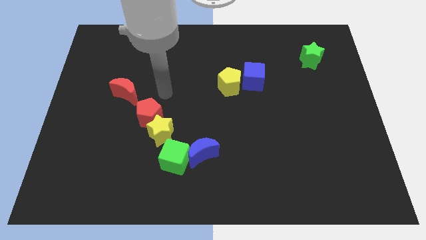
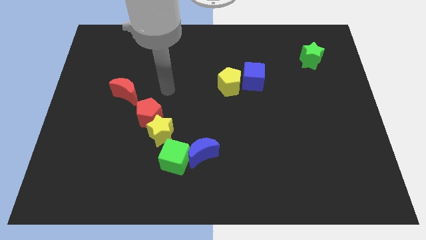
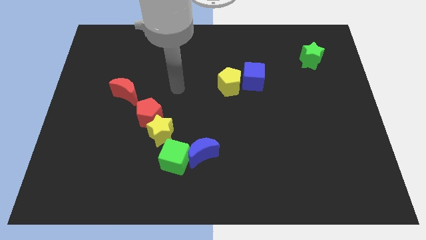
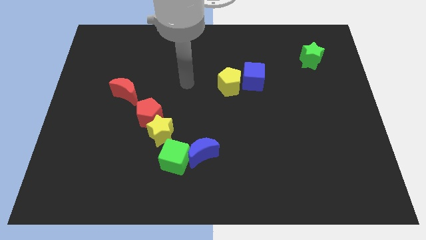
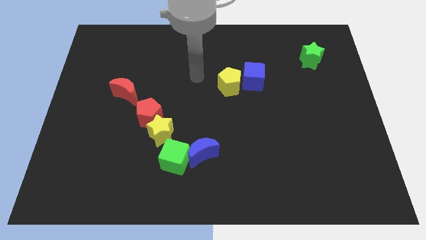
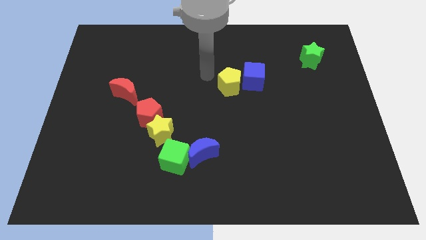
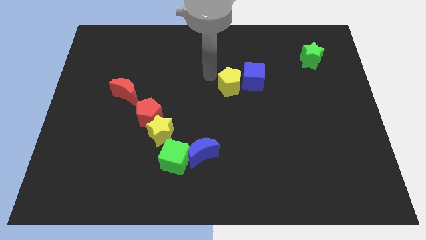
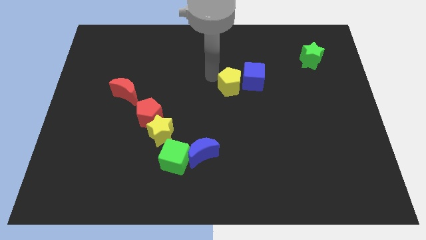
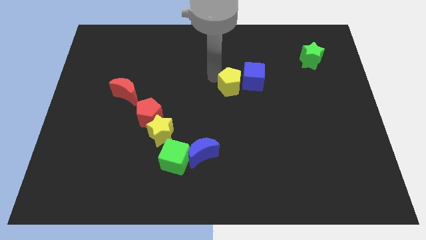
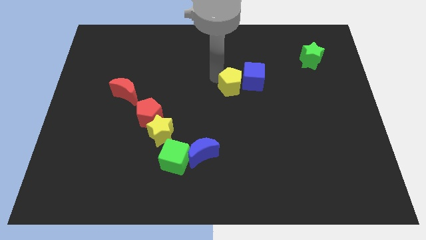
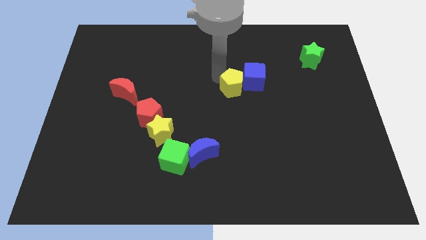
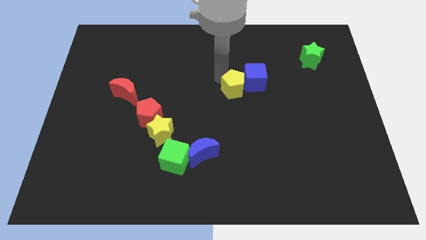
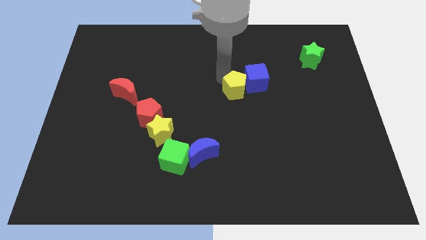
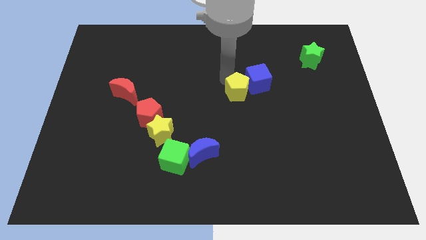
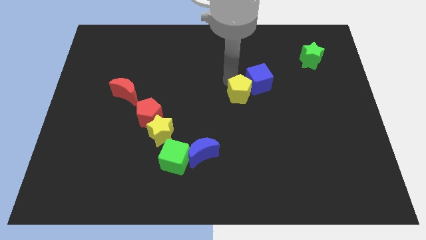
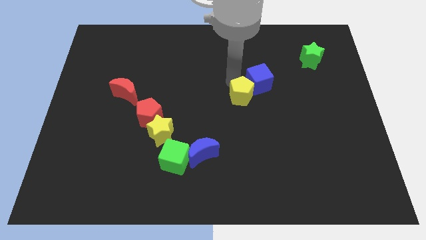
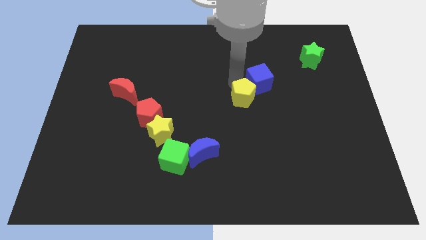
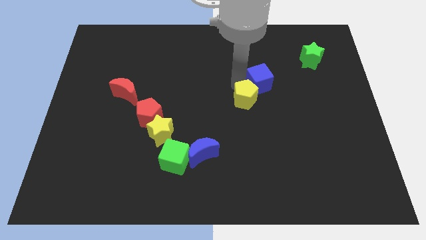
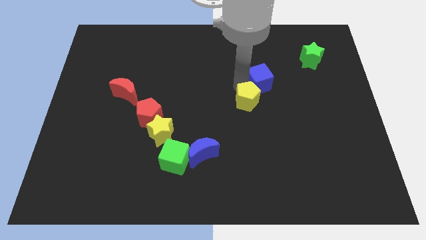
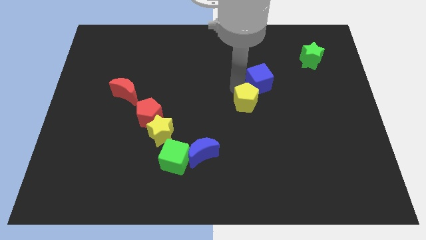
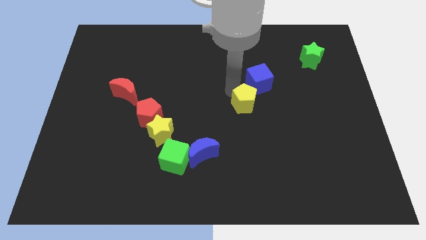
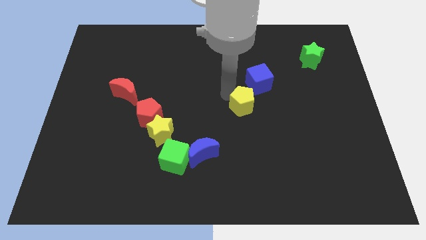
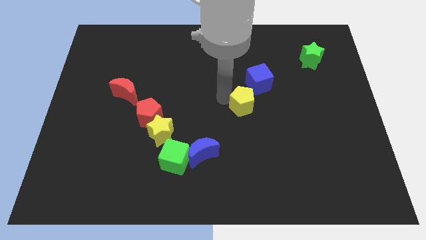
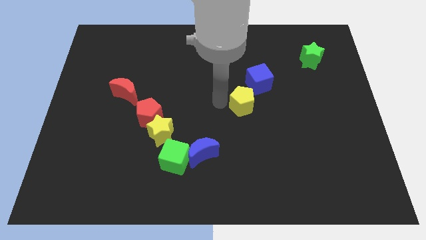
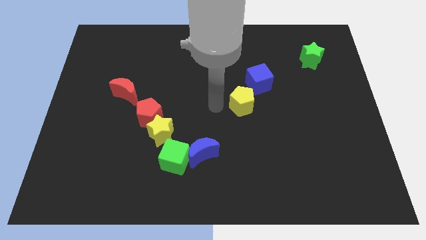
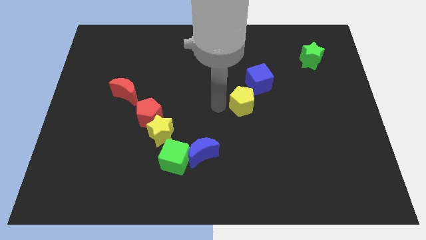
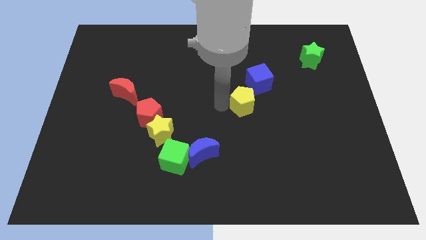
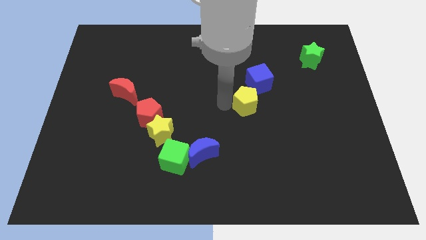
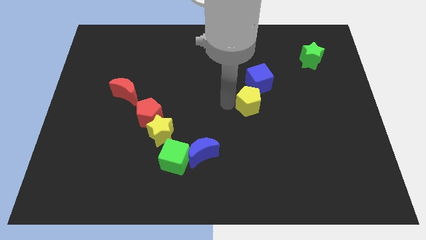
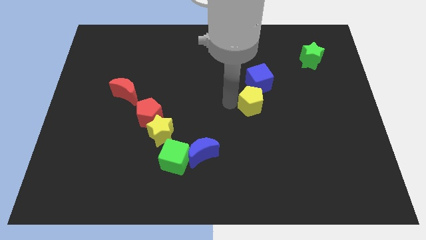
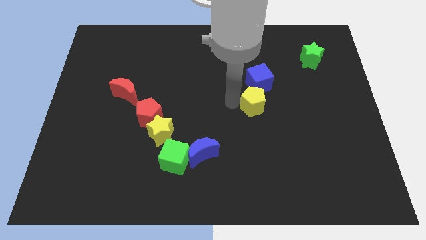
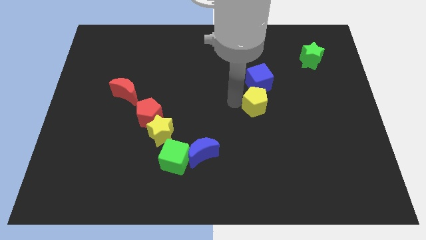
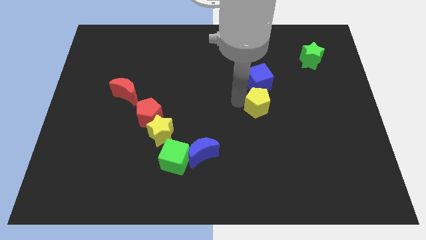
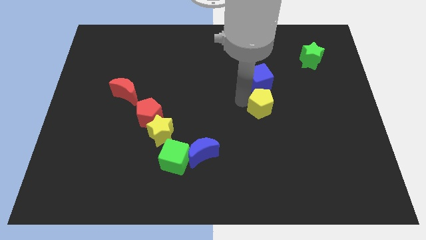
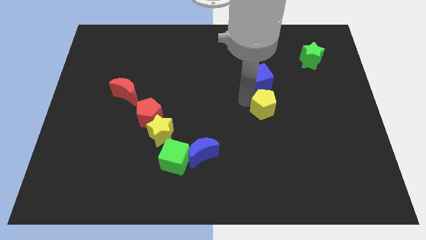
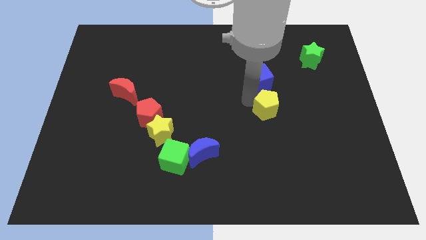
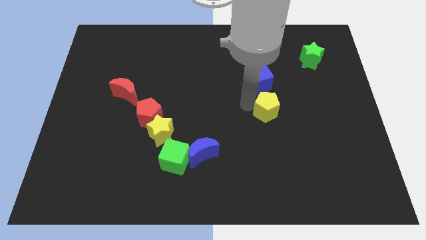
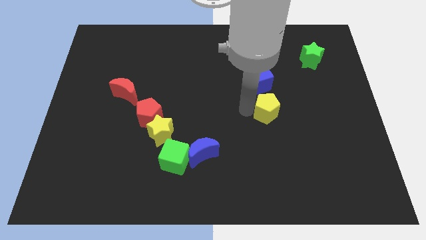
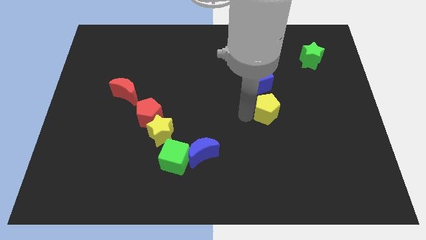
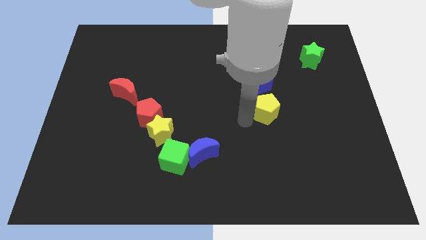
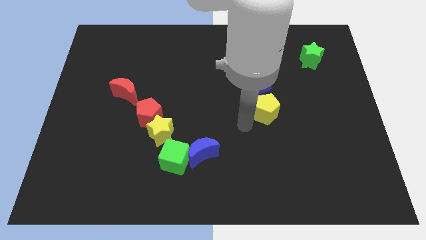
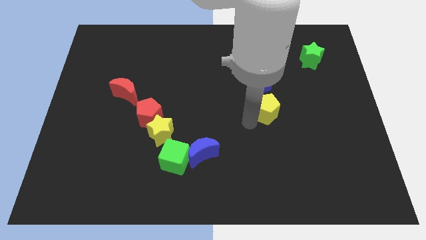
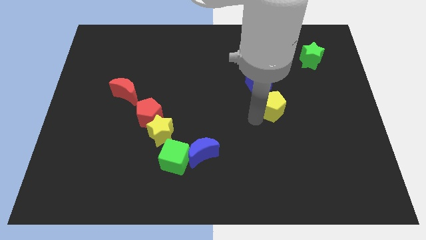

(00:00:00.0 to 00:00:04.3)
slightly slide the yellow pentagon to the right

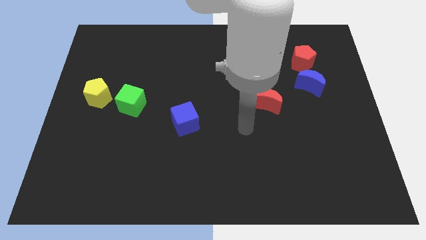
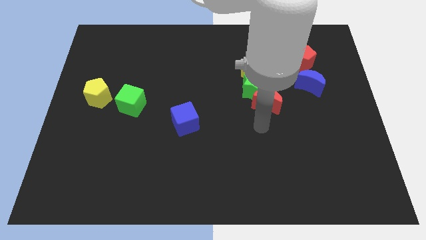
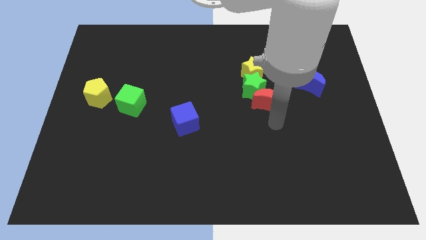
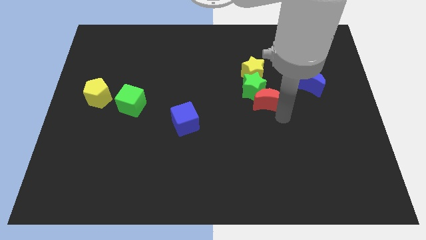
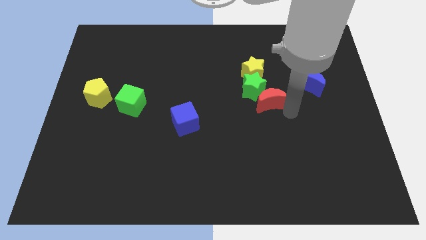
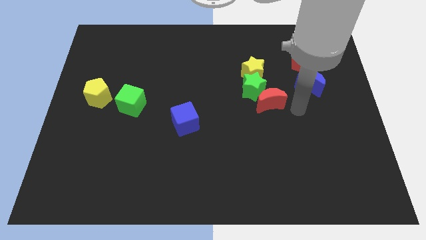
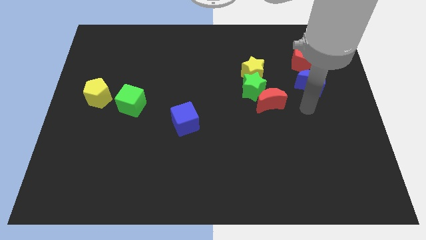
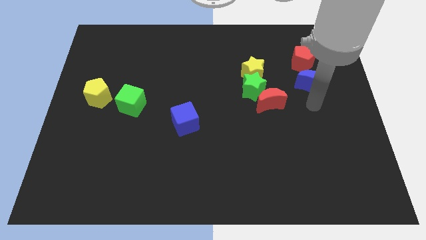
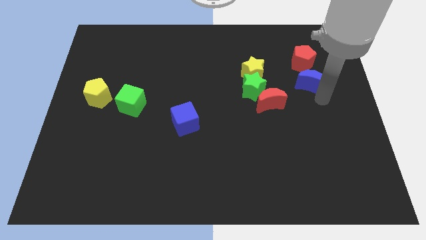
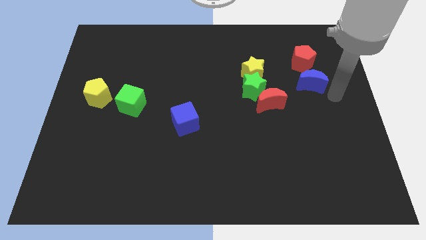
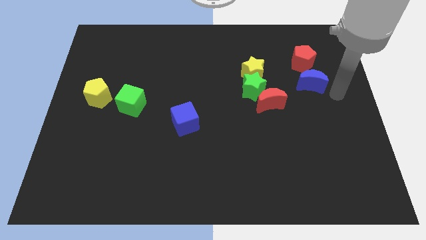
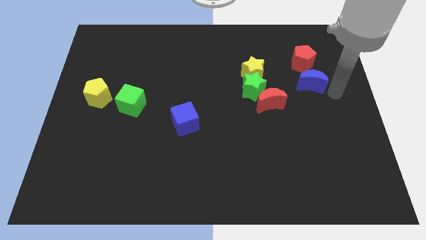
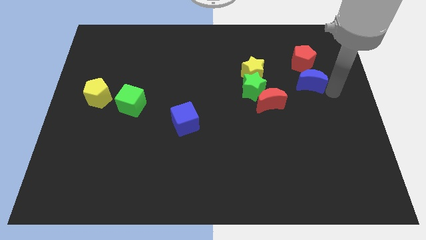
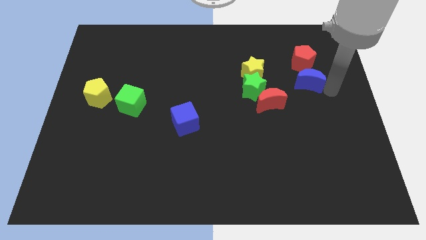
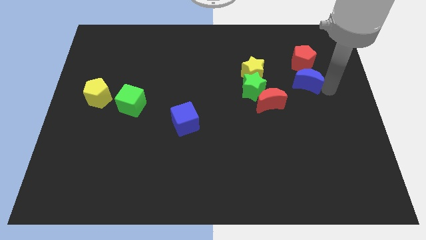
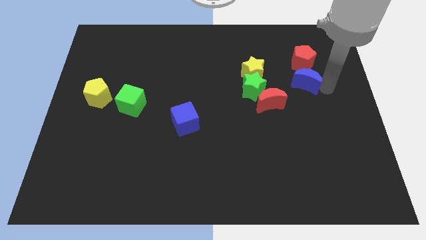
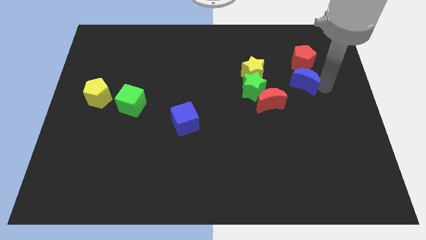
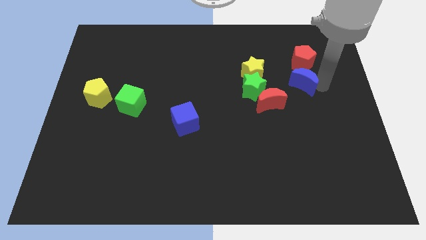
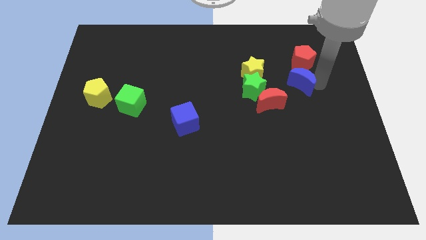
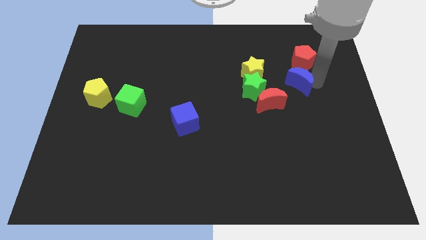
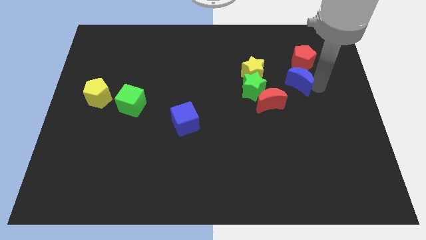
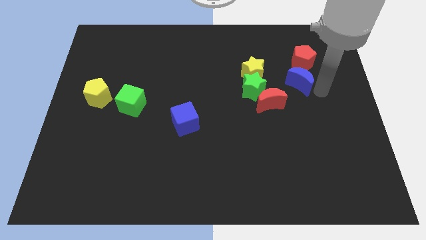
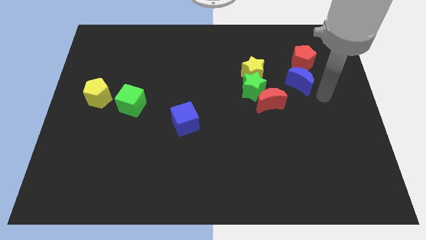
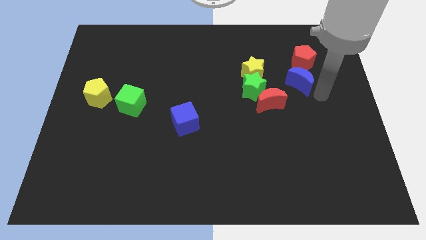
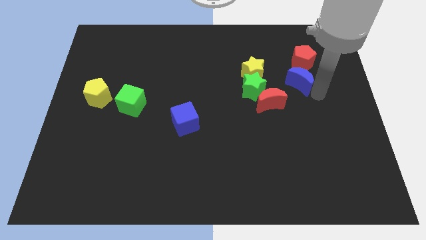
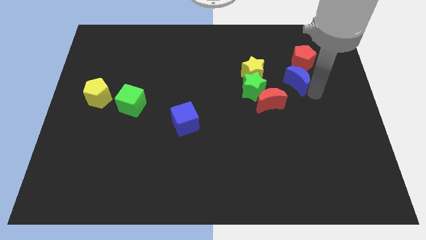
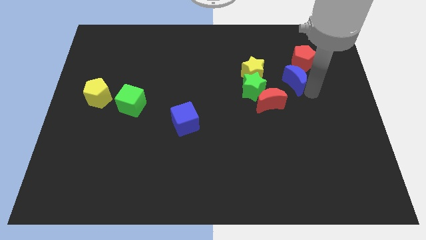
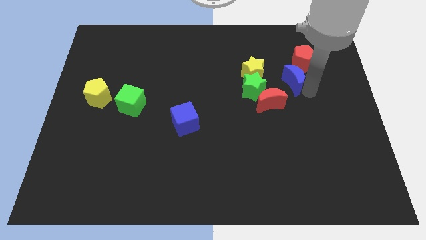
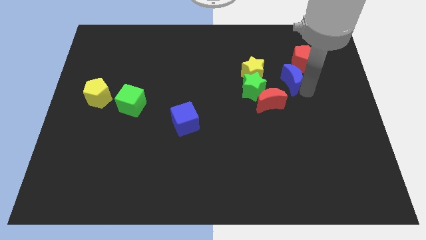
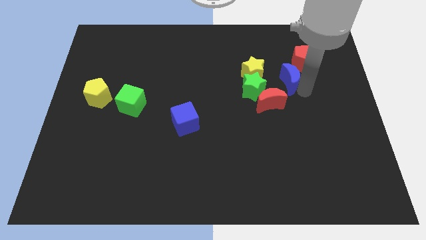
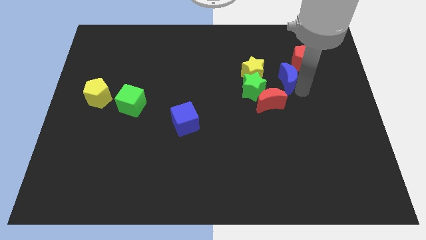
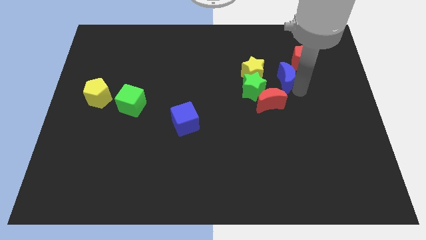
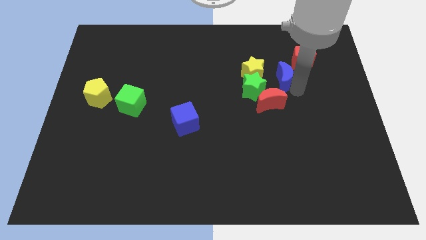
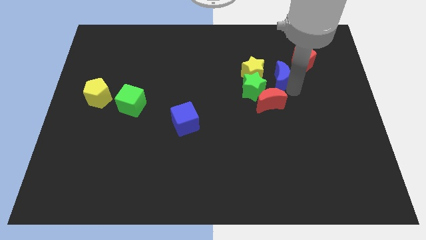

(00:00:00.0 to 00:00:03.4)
slide the blue moon to the left slightly

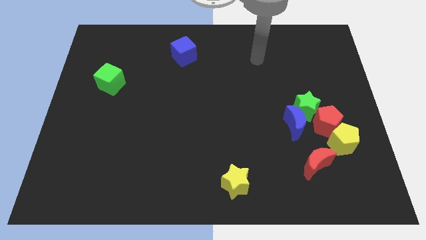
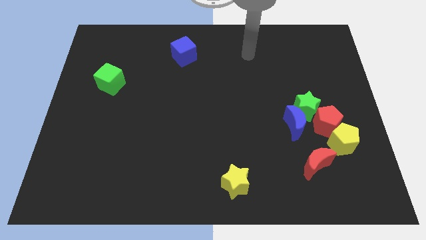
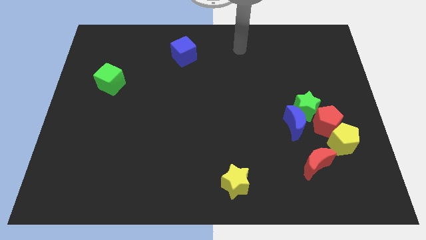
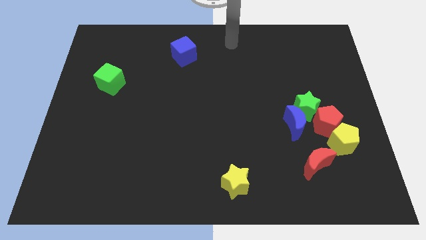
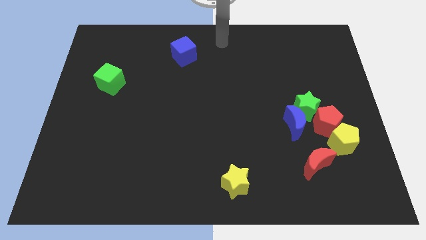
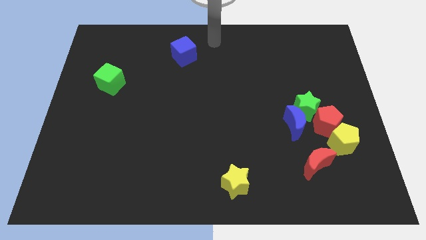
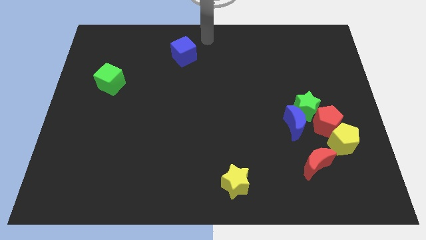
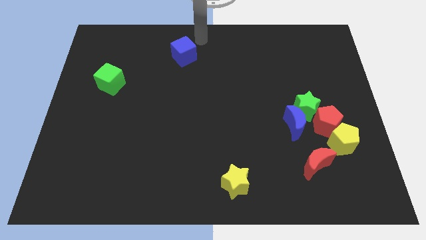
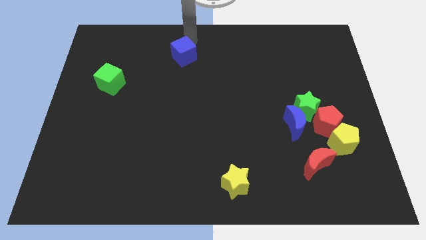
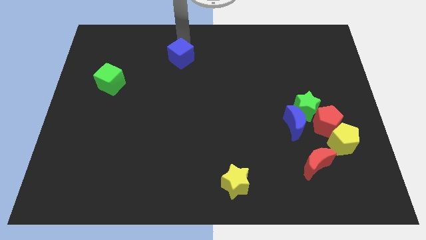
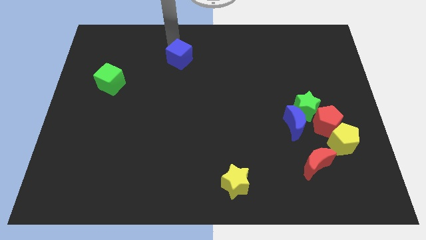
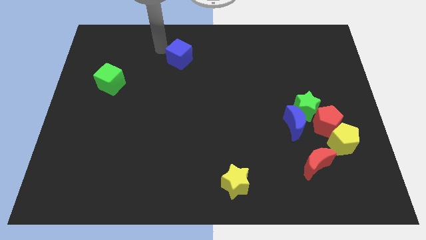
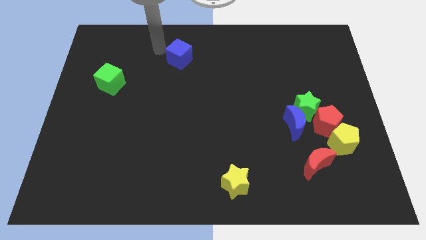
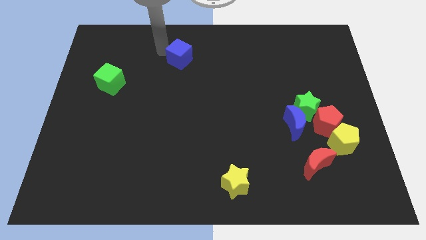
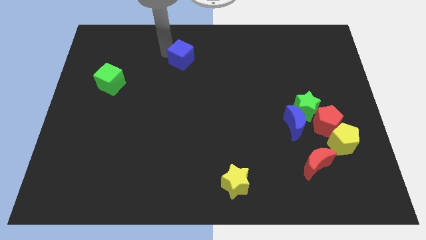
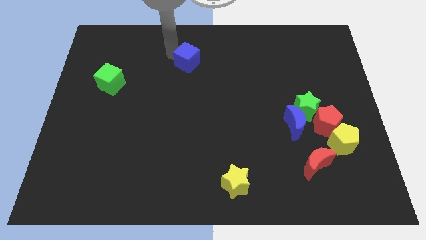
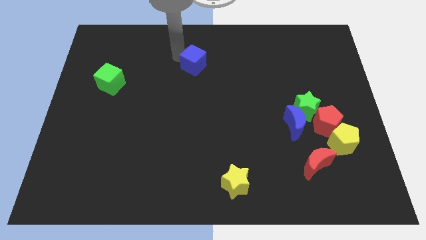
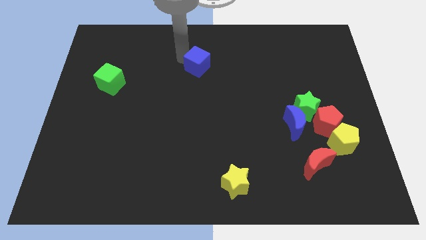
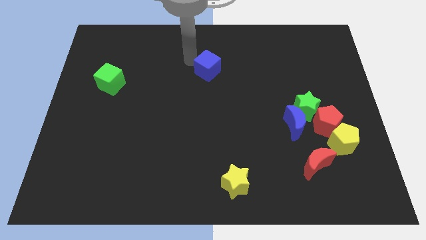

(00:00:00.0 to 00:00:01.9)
push the blue cube a bit downwards and to the right
